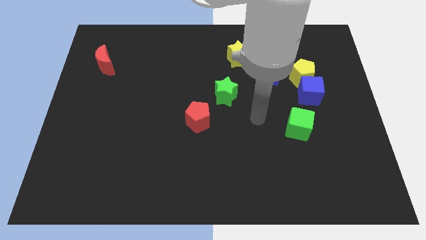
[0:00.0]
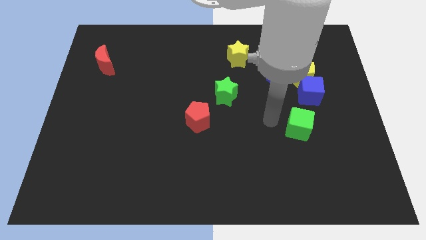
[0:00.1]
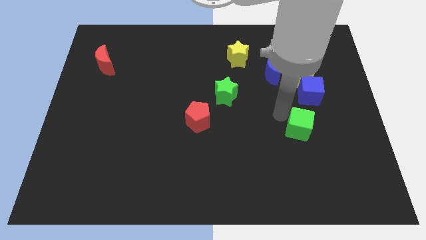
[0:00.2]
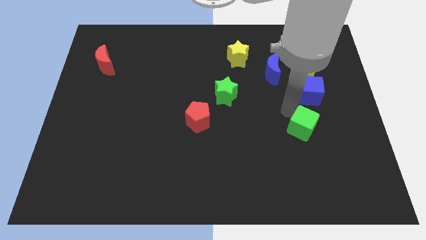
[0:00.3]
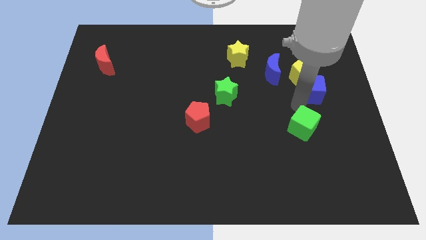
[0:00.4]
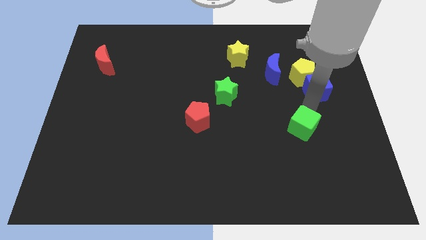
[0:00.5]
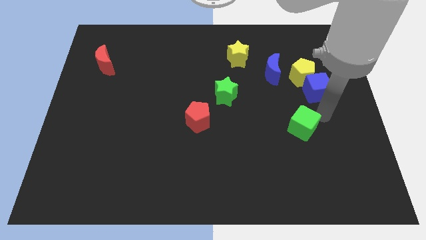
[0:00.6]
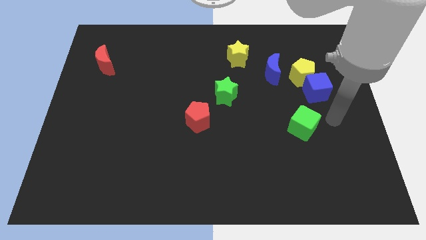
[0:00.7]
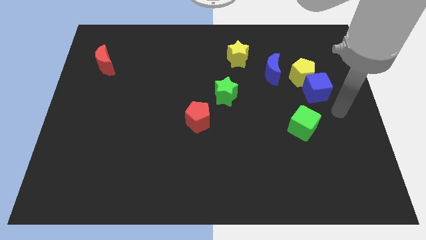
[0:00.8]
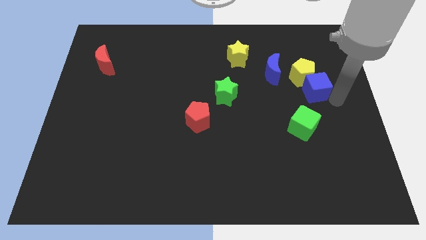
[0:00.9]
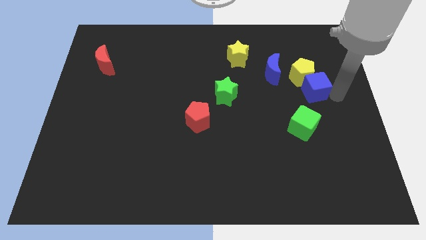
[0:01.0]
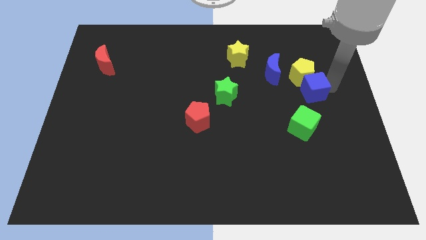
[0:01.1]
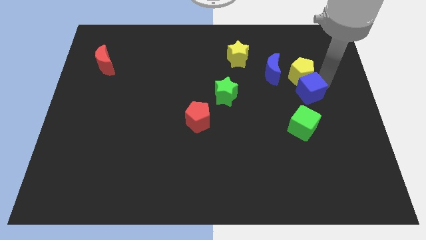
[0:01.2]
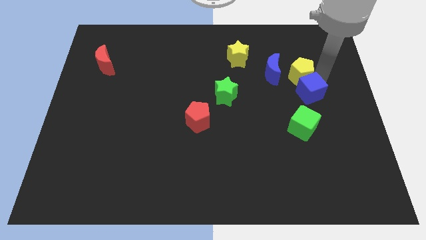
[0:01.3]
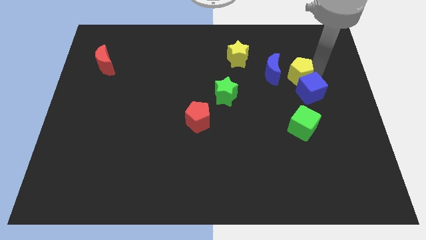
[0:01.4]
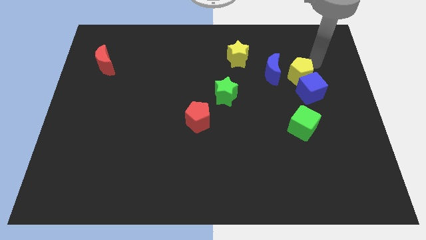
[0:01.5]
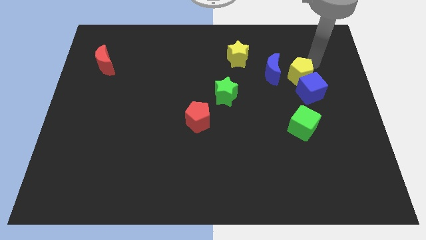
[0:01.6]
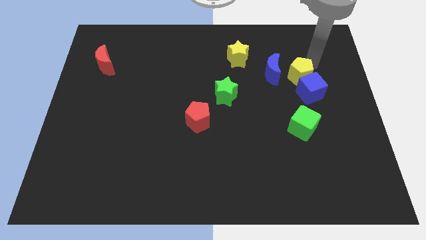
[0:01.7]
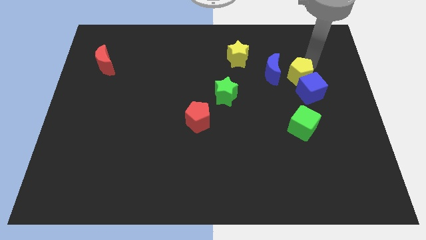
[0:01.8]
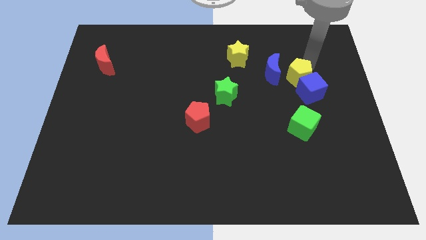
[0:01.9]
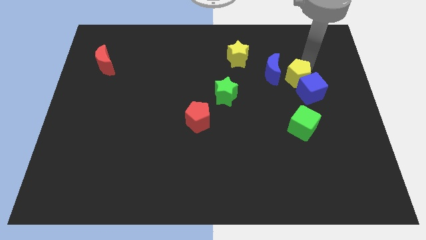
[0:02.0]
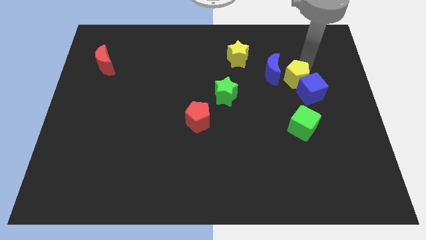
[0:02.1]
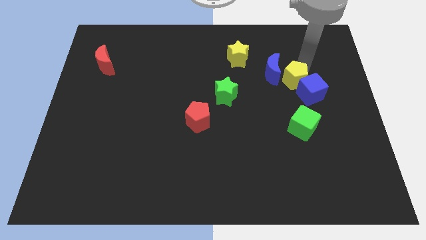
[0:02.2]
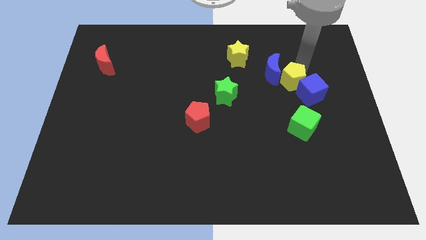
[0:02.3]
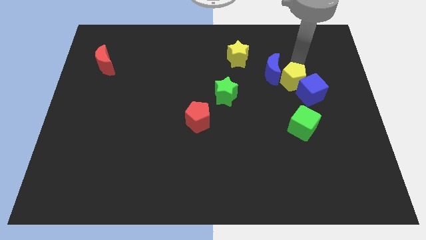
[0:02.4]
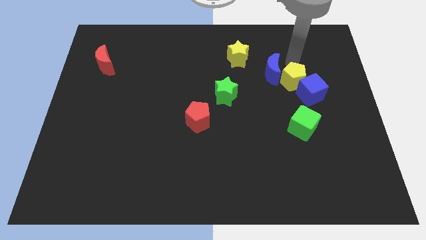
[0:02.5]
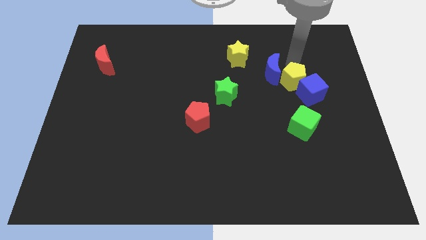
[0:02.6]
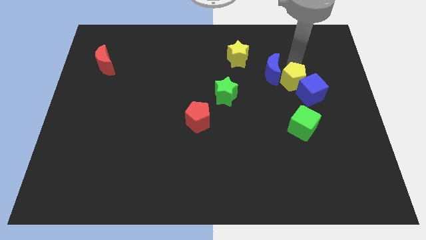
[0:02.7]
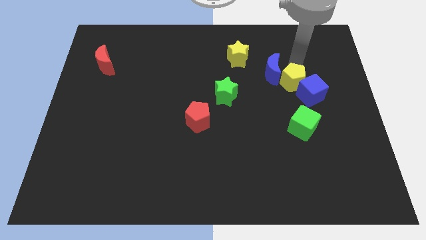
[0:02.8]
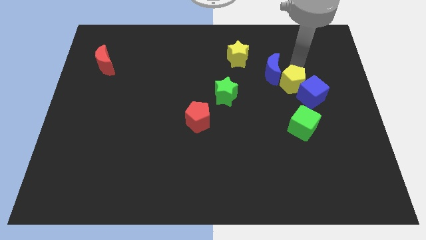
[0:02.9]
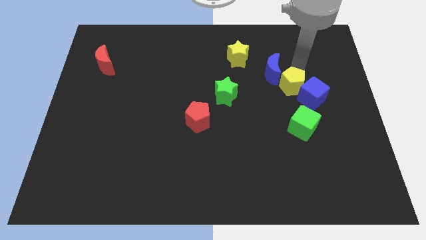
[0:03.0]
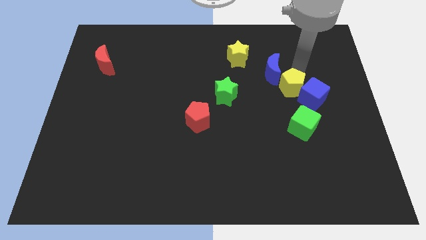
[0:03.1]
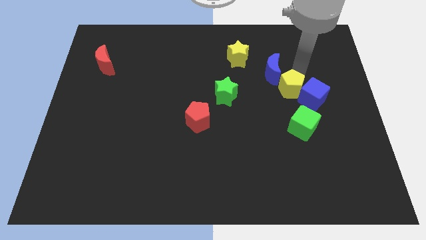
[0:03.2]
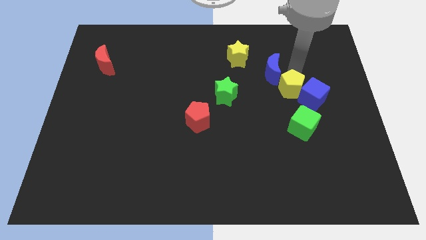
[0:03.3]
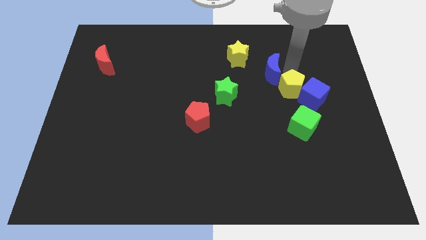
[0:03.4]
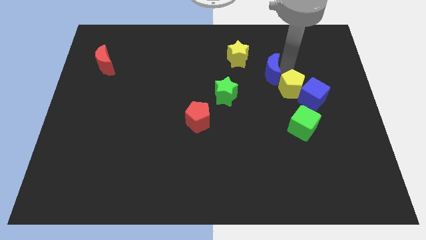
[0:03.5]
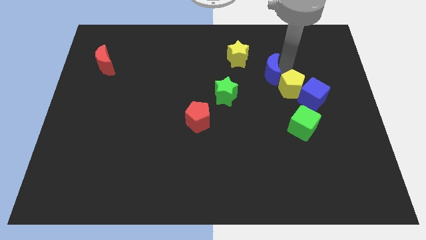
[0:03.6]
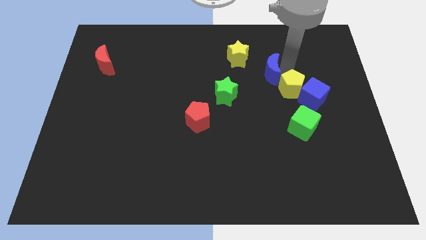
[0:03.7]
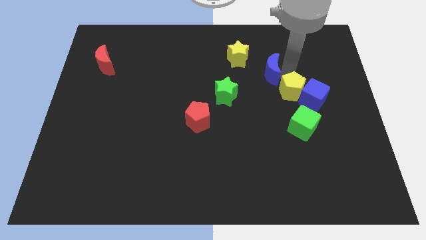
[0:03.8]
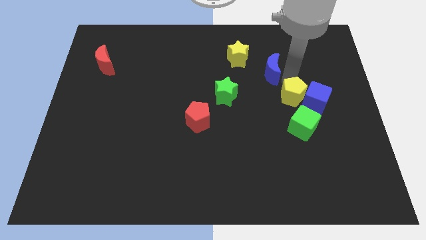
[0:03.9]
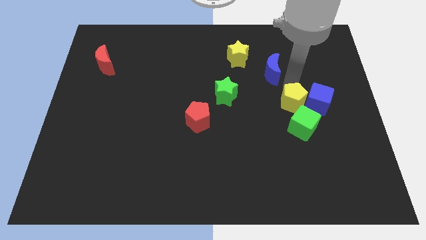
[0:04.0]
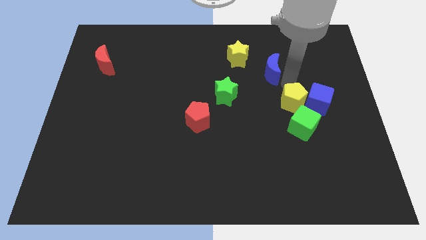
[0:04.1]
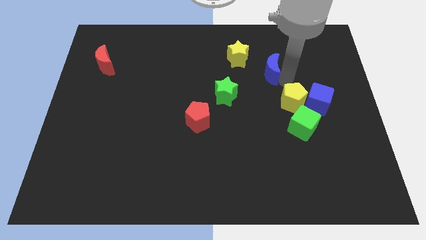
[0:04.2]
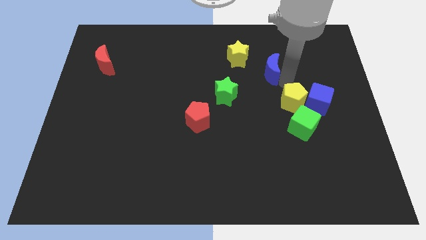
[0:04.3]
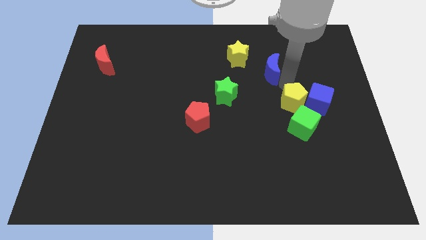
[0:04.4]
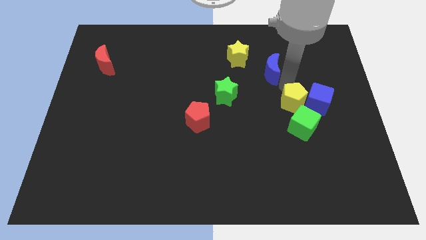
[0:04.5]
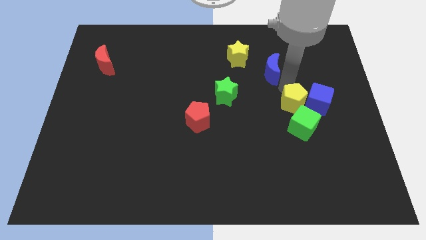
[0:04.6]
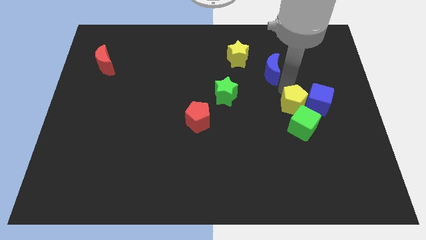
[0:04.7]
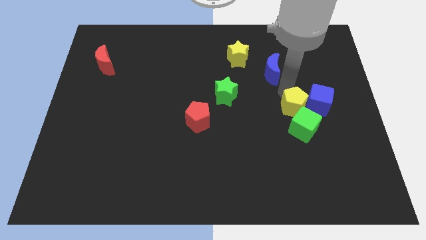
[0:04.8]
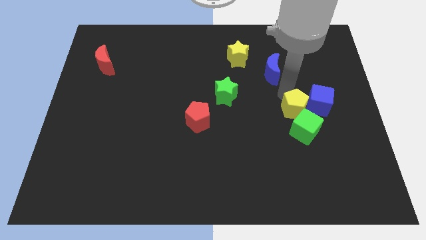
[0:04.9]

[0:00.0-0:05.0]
push the yellow pentagon close to the green cube

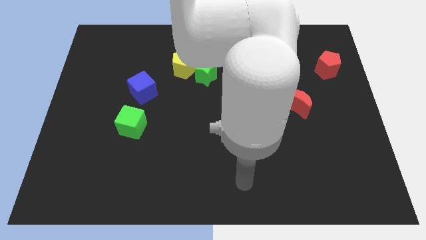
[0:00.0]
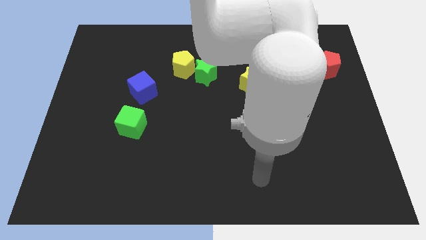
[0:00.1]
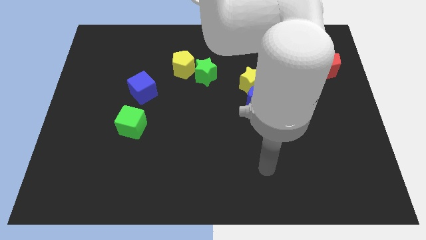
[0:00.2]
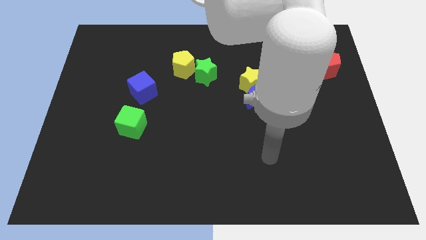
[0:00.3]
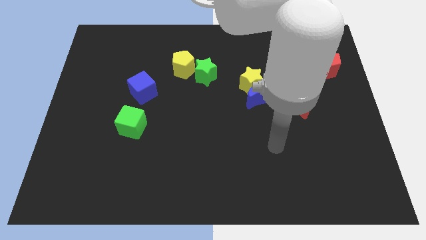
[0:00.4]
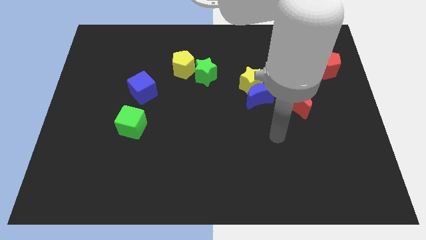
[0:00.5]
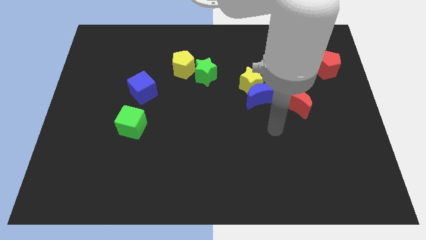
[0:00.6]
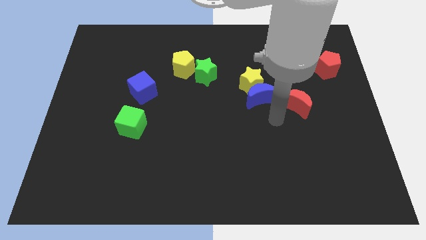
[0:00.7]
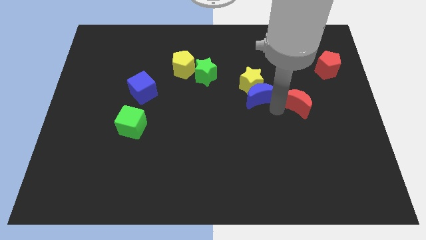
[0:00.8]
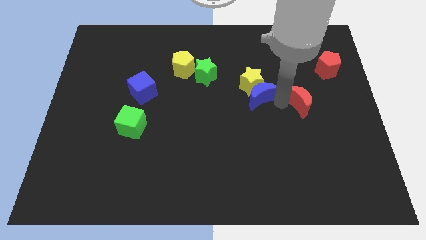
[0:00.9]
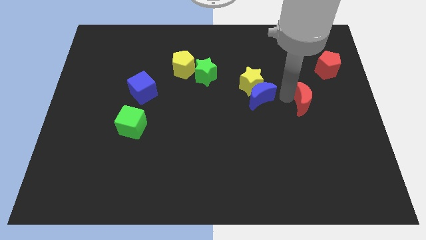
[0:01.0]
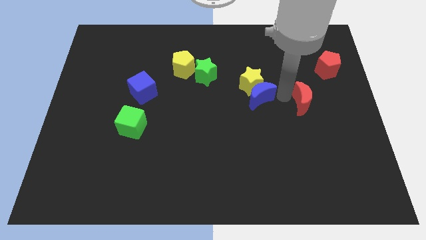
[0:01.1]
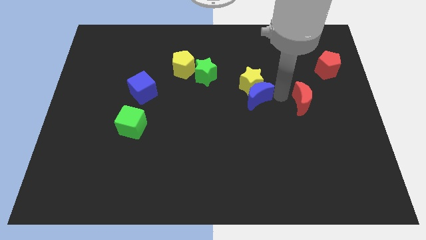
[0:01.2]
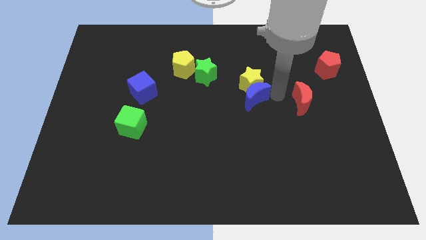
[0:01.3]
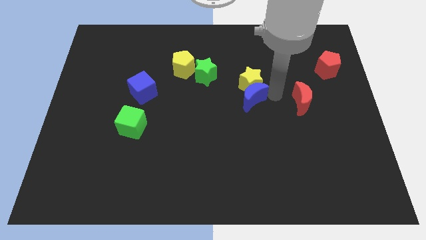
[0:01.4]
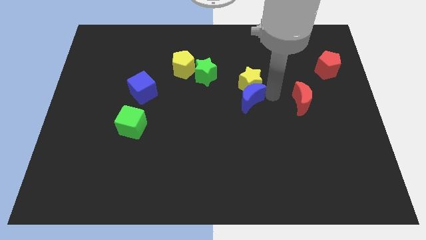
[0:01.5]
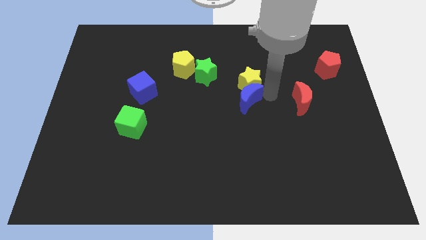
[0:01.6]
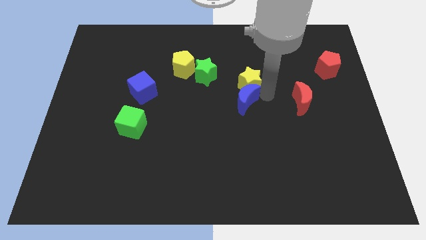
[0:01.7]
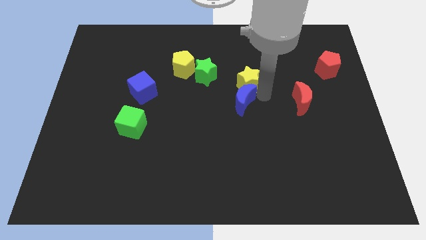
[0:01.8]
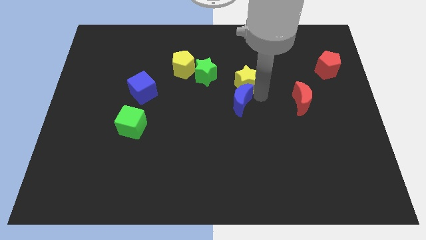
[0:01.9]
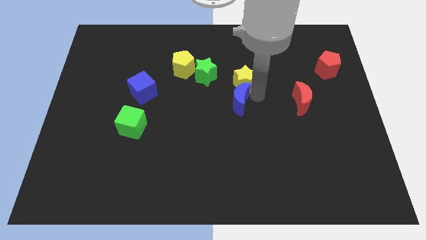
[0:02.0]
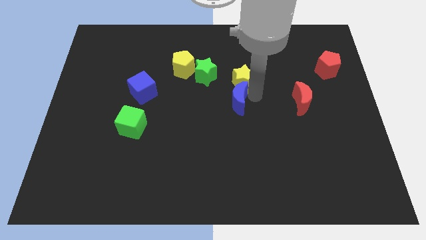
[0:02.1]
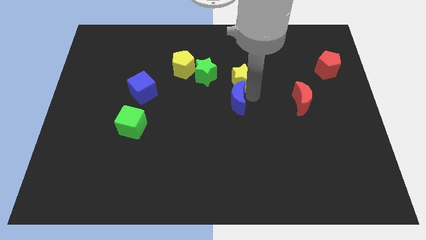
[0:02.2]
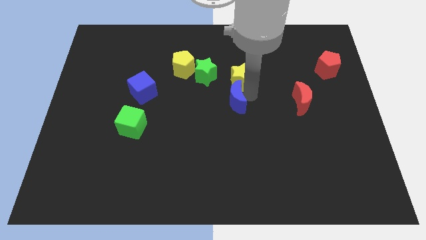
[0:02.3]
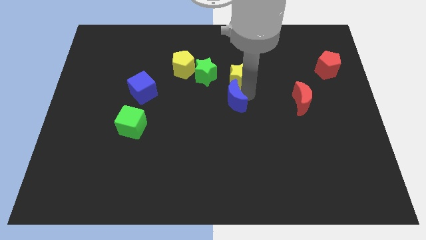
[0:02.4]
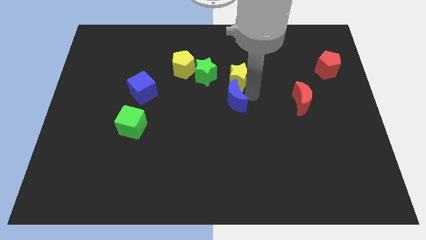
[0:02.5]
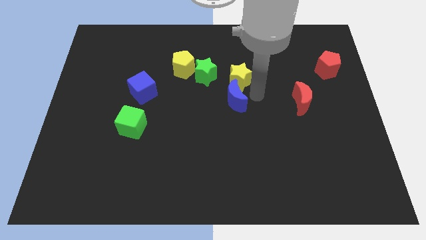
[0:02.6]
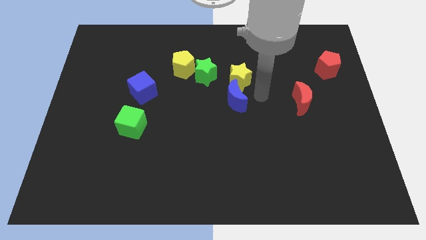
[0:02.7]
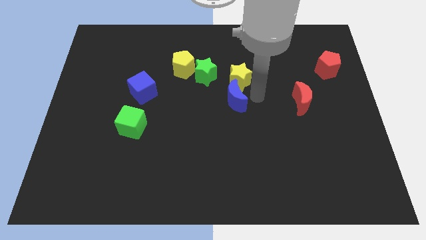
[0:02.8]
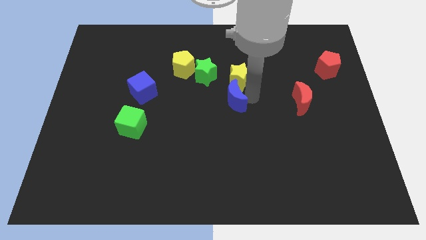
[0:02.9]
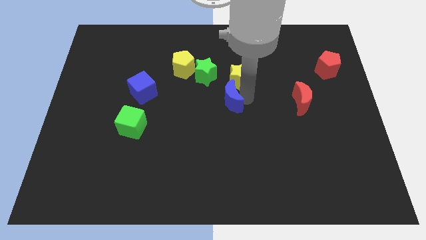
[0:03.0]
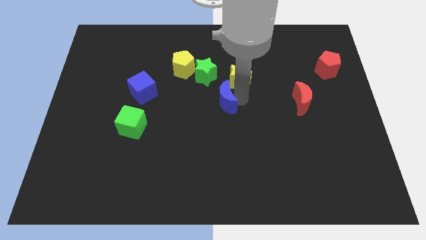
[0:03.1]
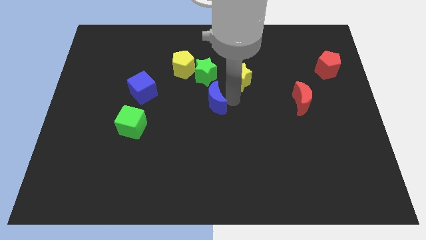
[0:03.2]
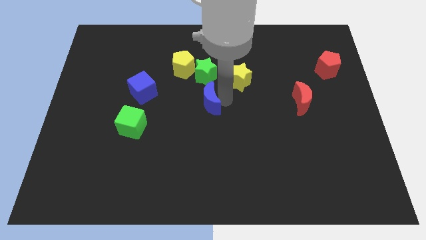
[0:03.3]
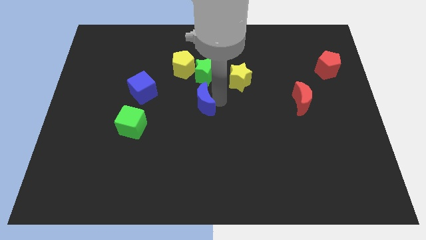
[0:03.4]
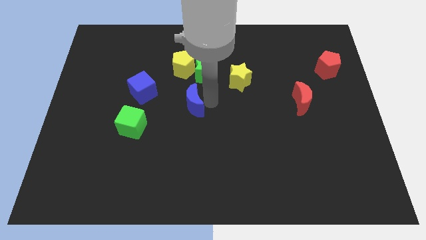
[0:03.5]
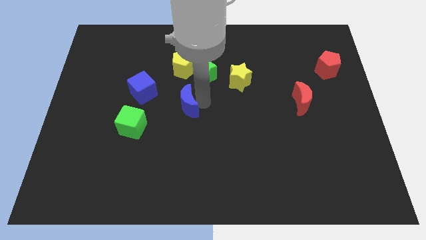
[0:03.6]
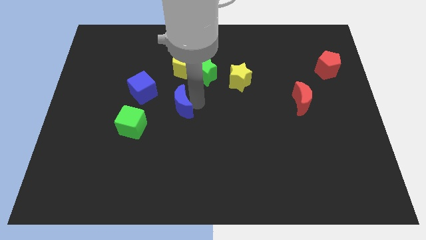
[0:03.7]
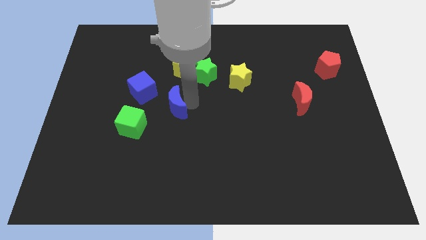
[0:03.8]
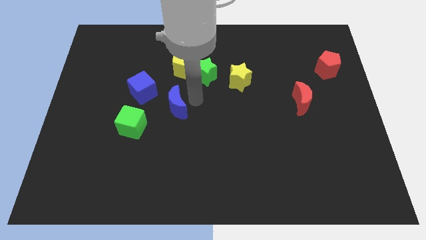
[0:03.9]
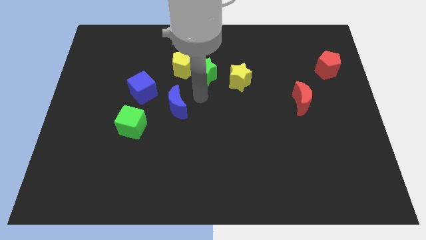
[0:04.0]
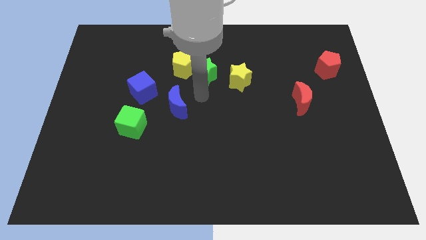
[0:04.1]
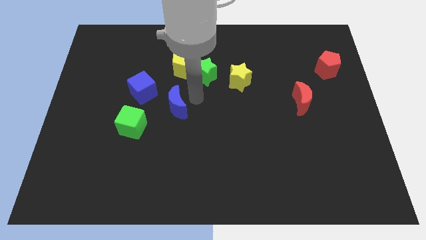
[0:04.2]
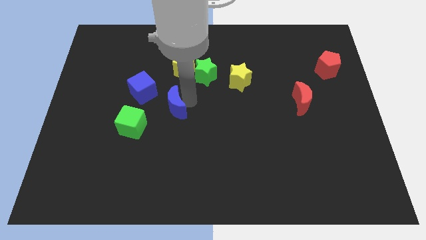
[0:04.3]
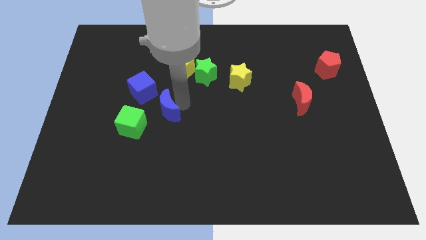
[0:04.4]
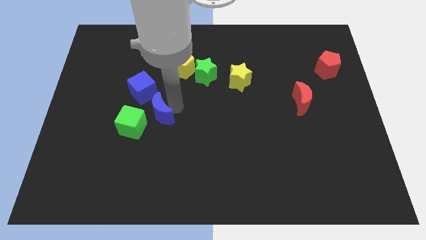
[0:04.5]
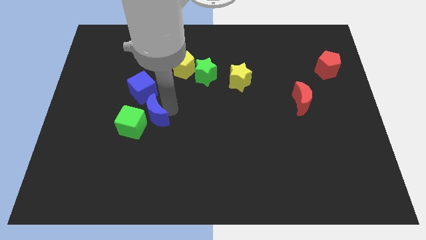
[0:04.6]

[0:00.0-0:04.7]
push the blue moon close to the green cube
